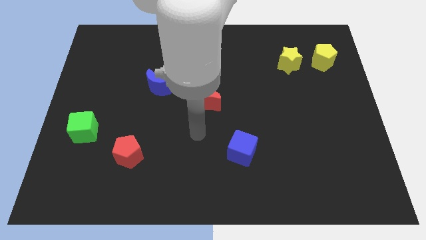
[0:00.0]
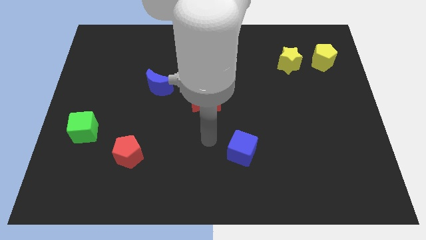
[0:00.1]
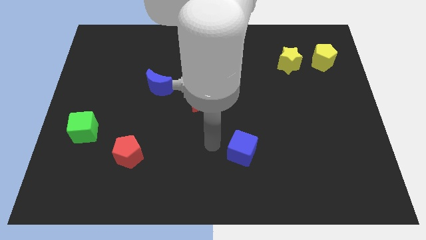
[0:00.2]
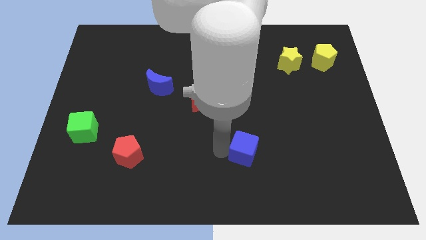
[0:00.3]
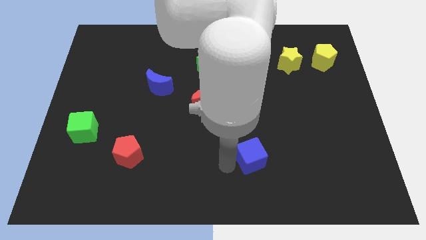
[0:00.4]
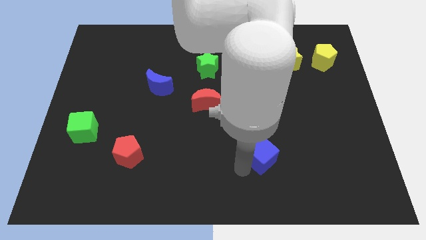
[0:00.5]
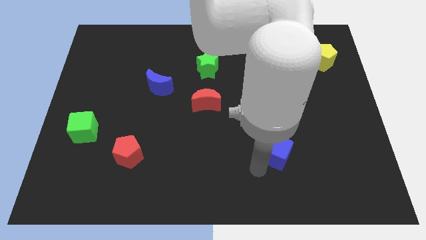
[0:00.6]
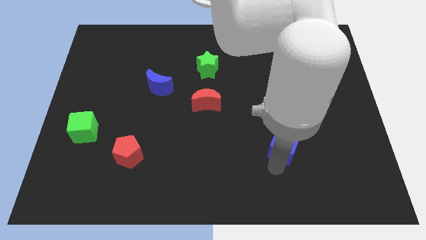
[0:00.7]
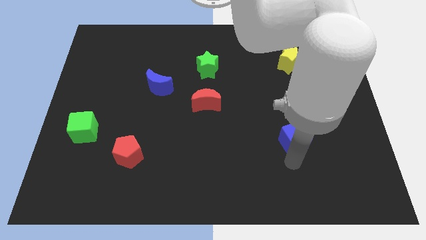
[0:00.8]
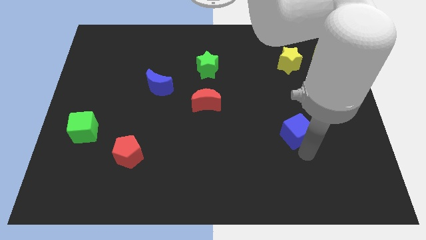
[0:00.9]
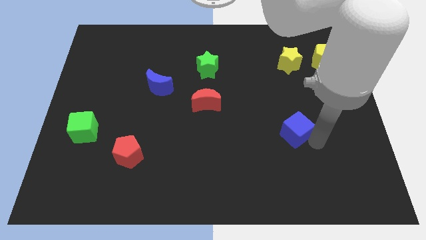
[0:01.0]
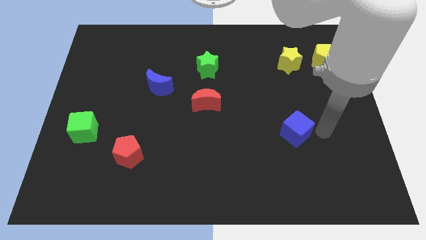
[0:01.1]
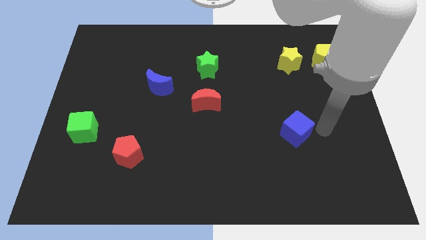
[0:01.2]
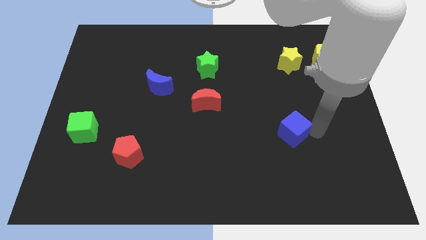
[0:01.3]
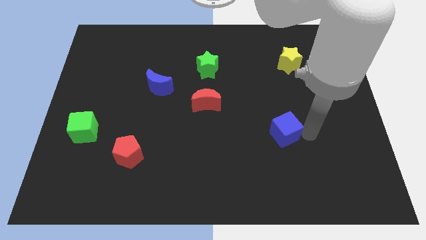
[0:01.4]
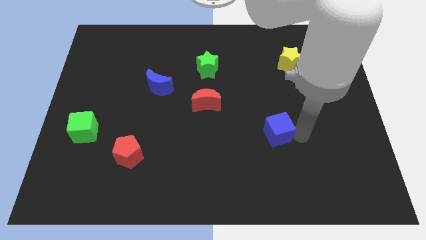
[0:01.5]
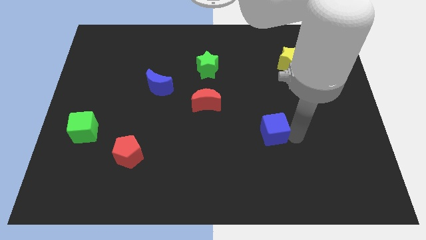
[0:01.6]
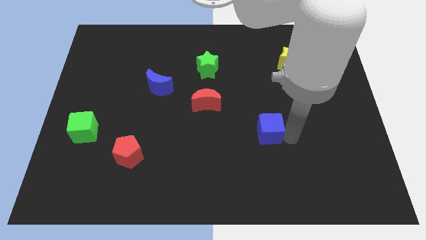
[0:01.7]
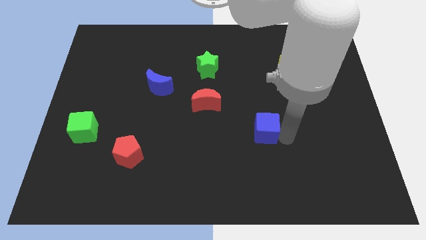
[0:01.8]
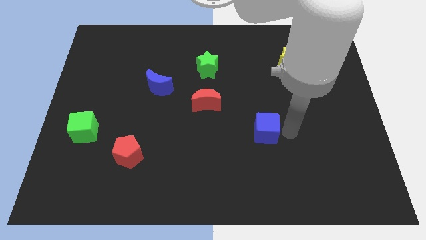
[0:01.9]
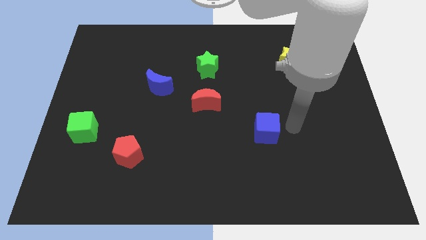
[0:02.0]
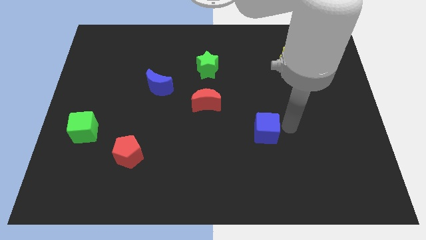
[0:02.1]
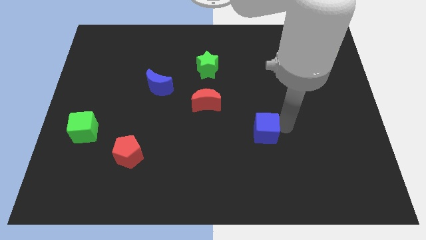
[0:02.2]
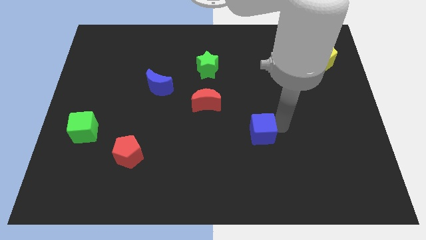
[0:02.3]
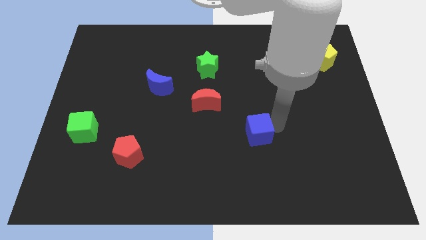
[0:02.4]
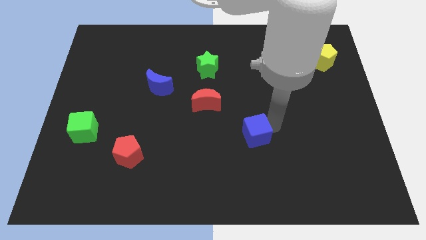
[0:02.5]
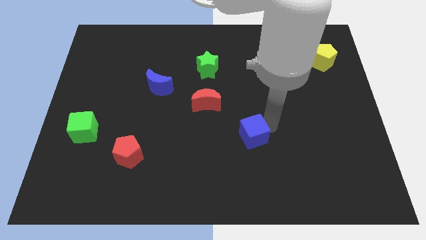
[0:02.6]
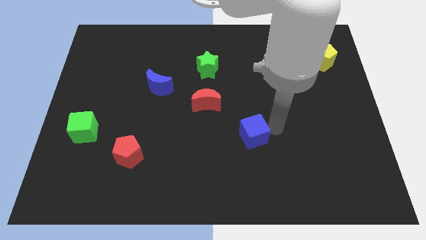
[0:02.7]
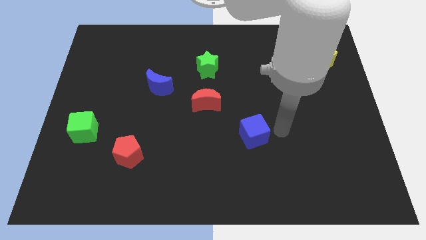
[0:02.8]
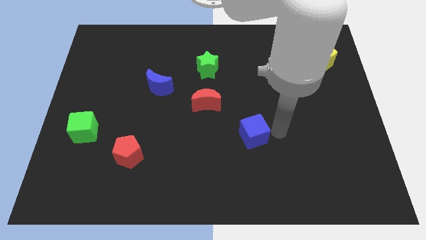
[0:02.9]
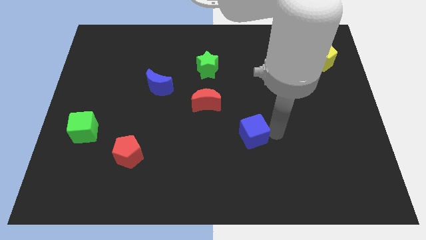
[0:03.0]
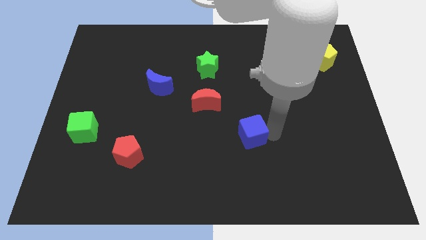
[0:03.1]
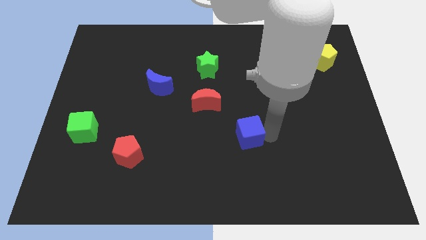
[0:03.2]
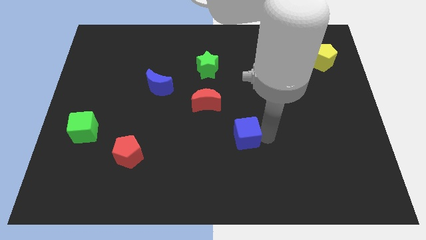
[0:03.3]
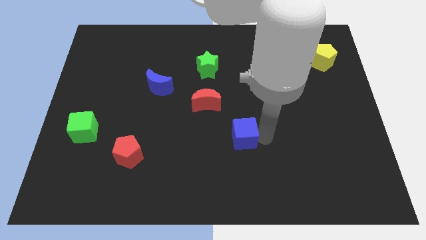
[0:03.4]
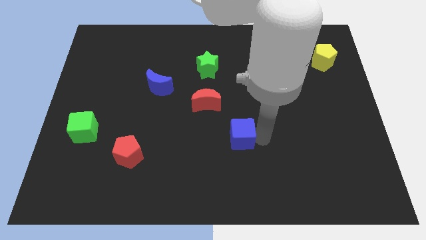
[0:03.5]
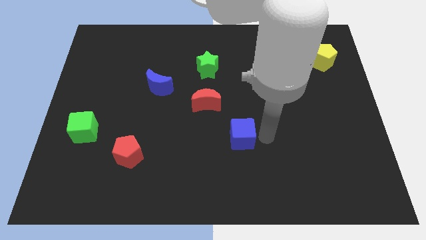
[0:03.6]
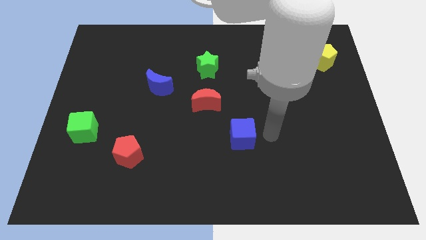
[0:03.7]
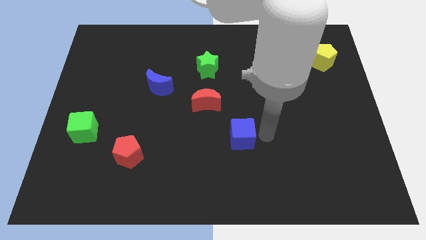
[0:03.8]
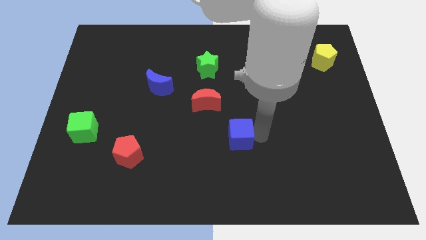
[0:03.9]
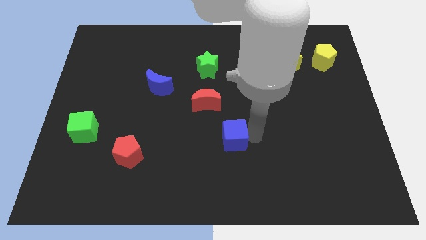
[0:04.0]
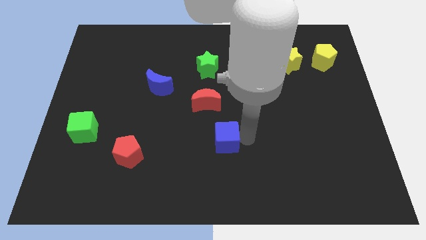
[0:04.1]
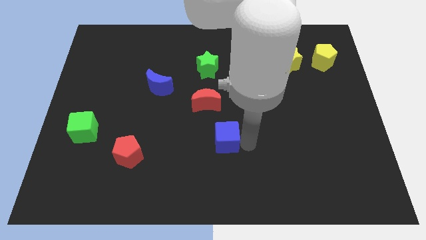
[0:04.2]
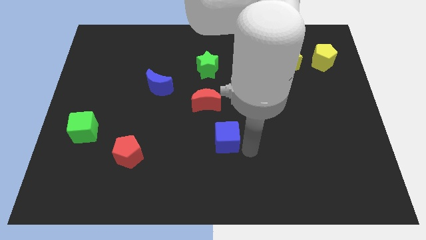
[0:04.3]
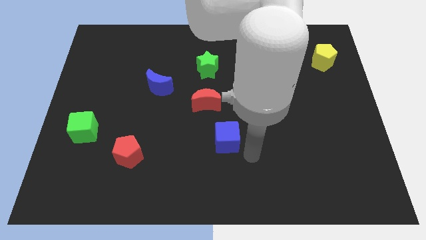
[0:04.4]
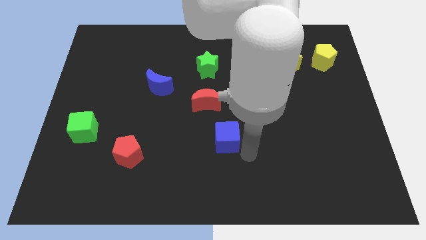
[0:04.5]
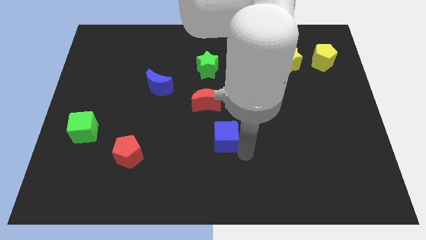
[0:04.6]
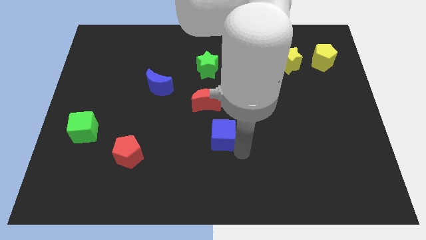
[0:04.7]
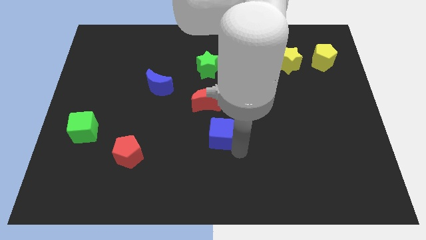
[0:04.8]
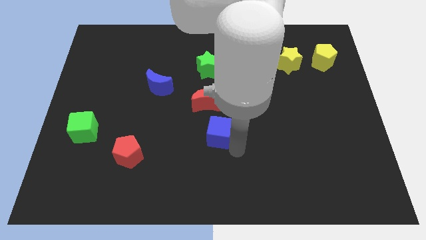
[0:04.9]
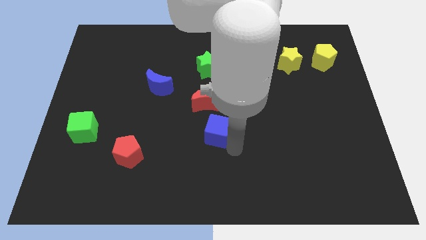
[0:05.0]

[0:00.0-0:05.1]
slightly push the blue cube up and then left

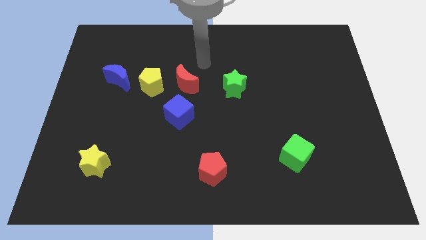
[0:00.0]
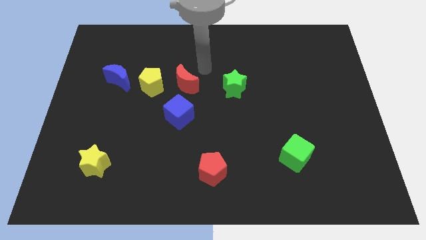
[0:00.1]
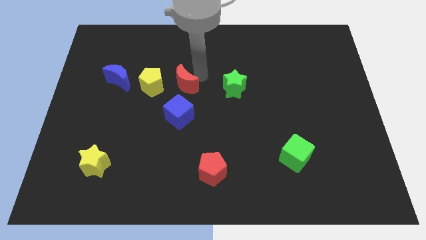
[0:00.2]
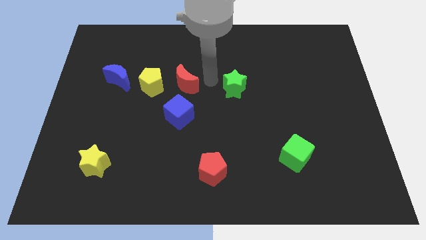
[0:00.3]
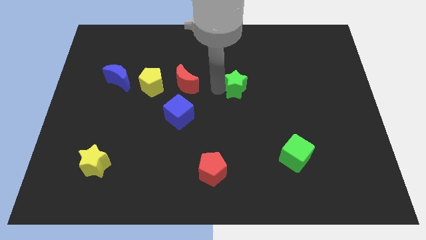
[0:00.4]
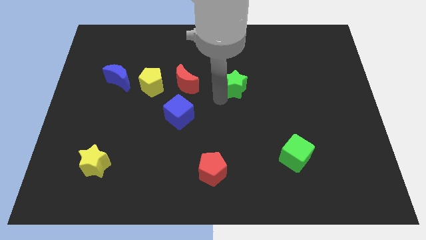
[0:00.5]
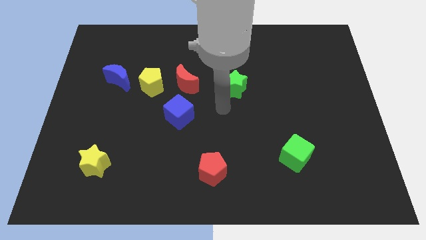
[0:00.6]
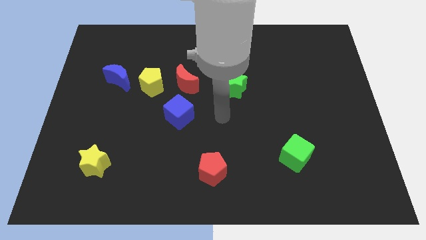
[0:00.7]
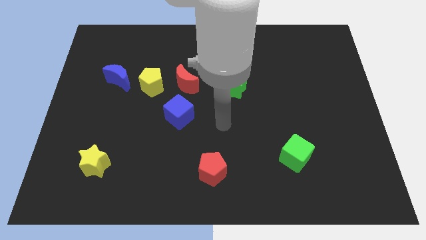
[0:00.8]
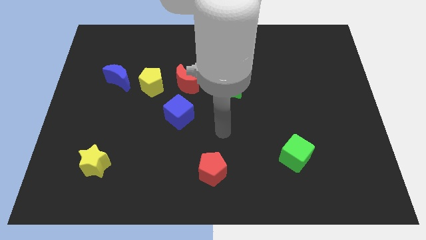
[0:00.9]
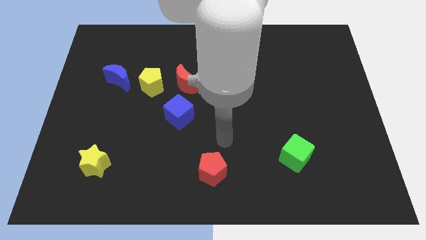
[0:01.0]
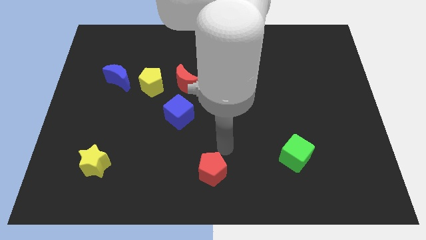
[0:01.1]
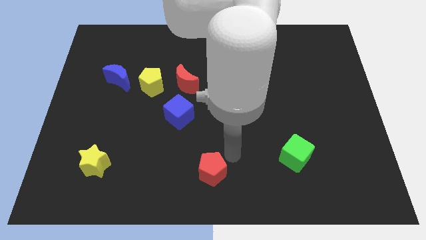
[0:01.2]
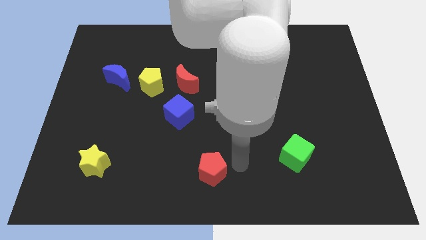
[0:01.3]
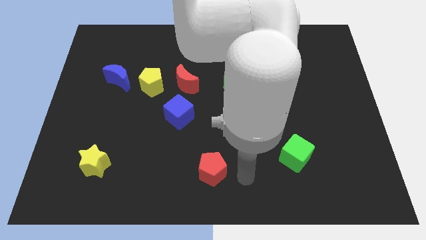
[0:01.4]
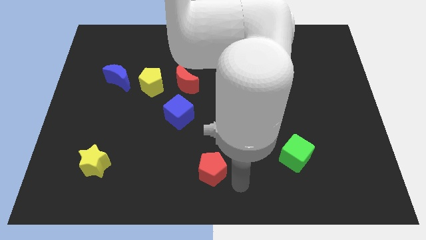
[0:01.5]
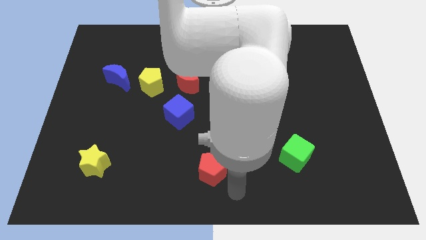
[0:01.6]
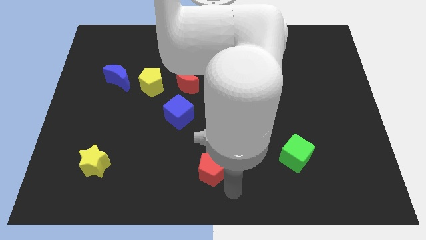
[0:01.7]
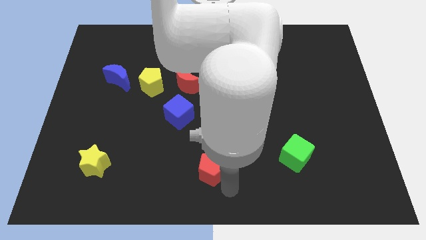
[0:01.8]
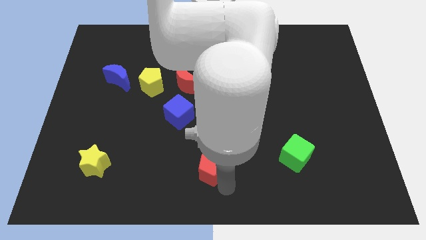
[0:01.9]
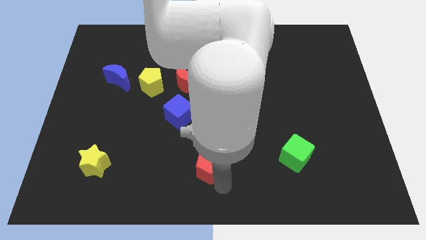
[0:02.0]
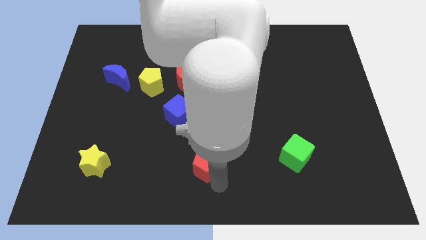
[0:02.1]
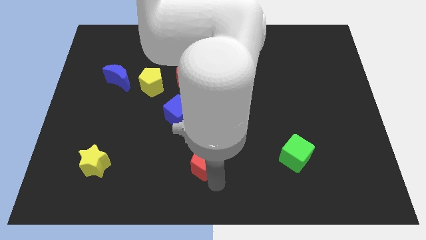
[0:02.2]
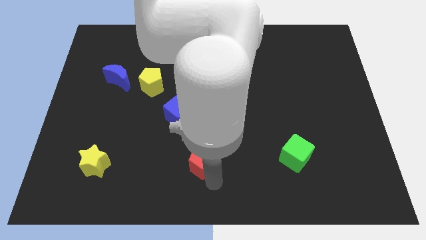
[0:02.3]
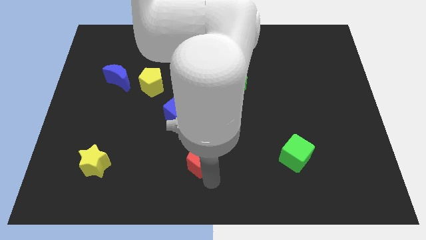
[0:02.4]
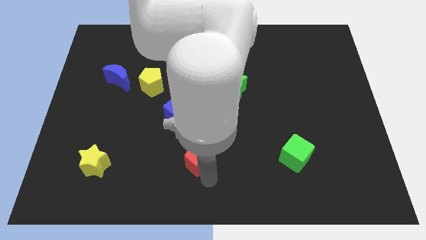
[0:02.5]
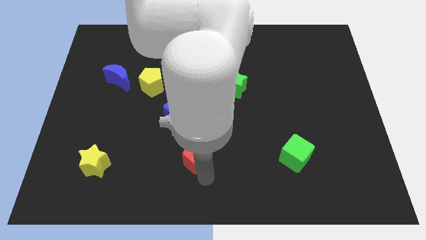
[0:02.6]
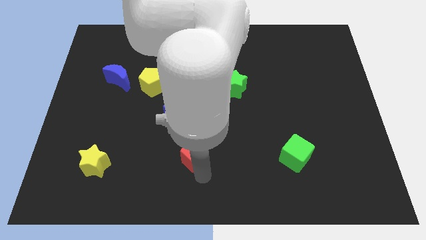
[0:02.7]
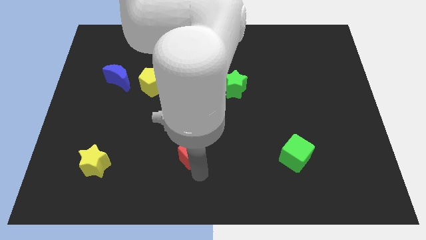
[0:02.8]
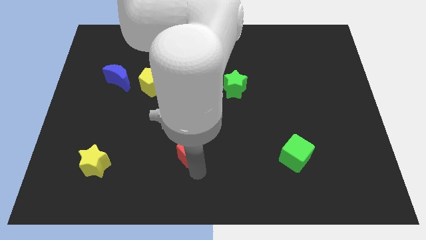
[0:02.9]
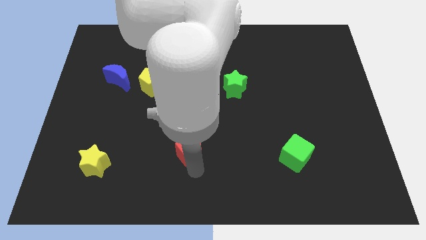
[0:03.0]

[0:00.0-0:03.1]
slide the red pentagon a bit up and left diagonally
